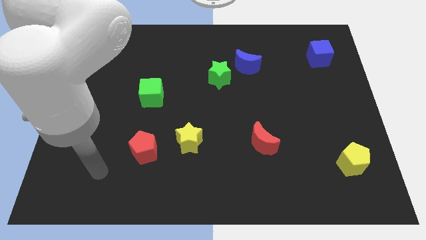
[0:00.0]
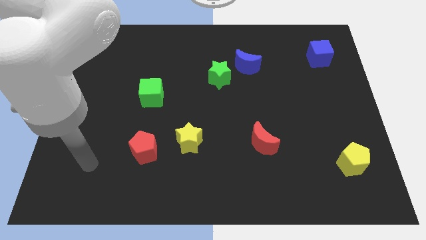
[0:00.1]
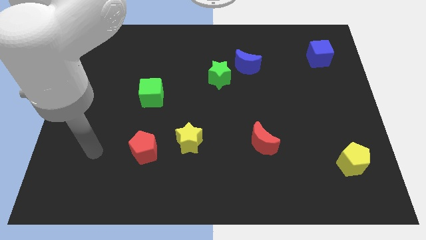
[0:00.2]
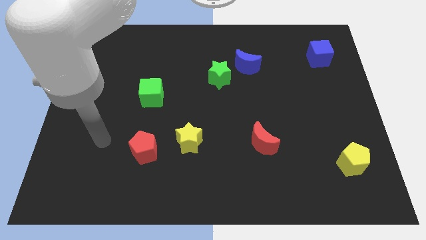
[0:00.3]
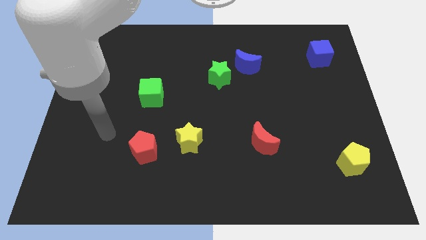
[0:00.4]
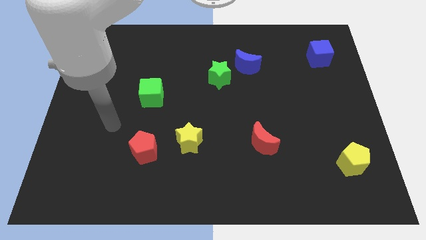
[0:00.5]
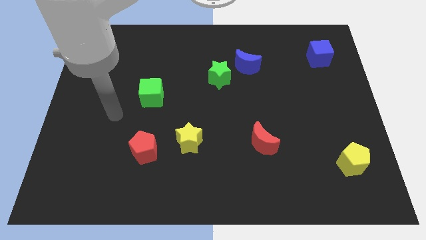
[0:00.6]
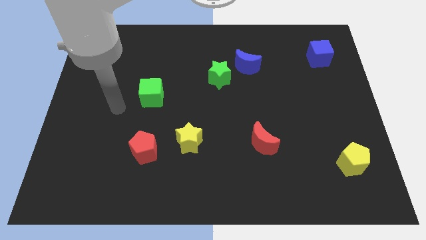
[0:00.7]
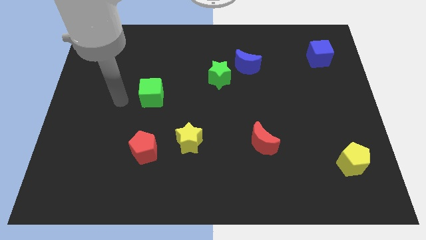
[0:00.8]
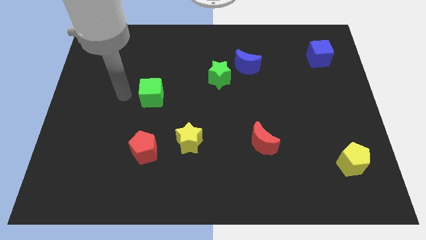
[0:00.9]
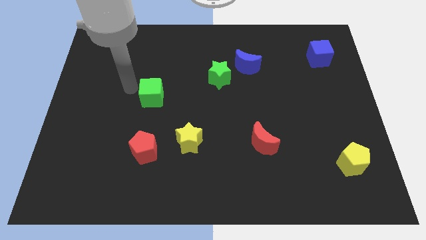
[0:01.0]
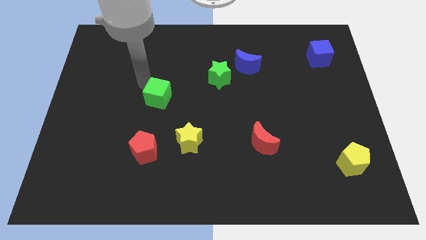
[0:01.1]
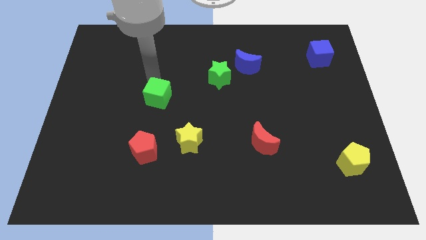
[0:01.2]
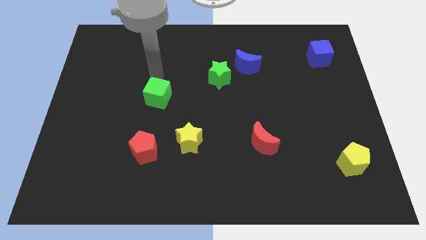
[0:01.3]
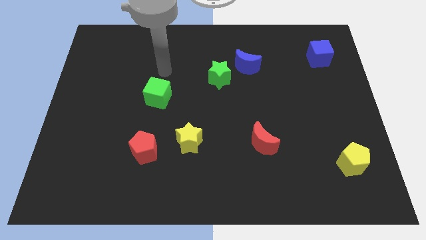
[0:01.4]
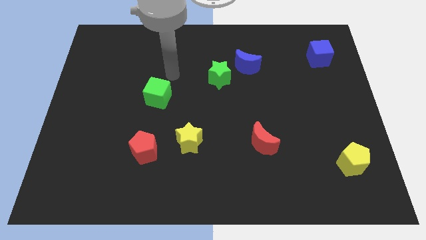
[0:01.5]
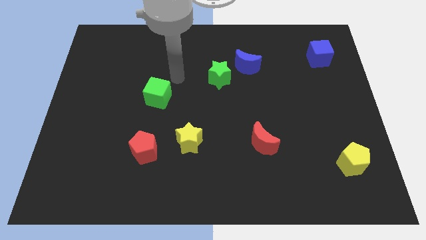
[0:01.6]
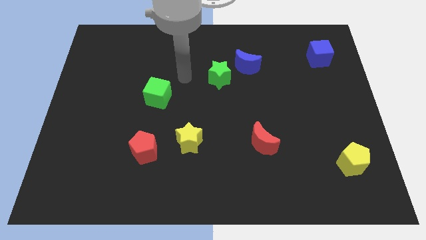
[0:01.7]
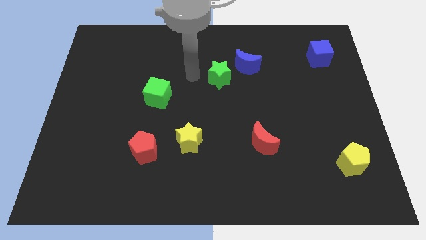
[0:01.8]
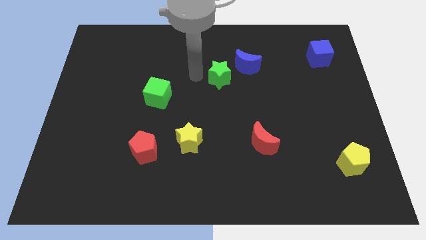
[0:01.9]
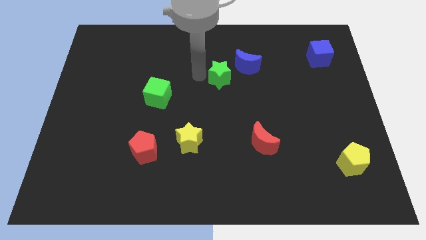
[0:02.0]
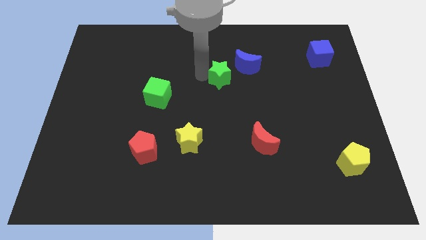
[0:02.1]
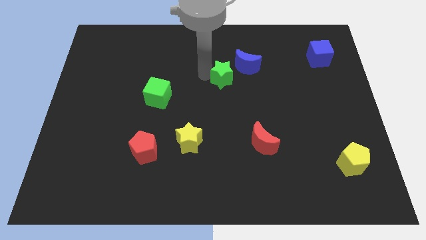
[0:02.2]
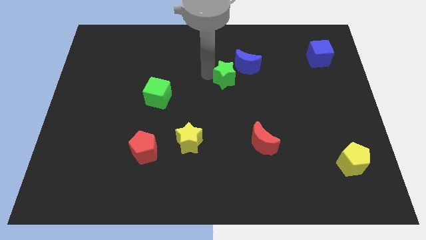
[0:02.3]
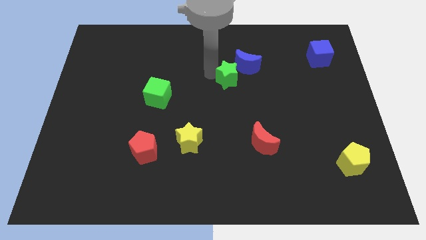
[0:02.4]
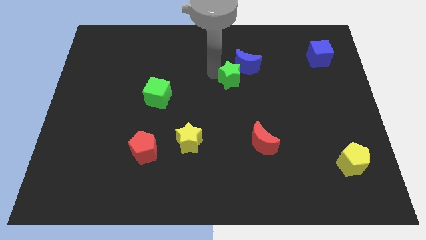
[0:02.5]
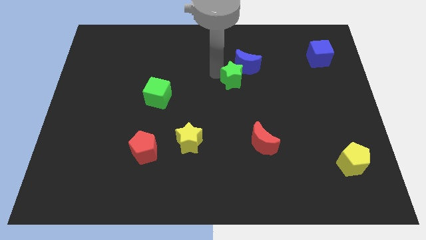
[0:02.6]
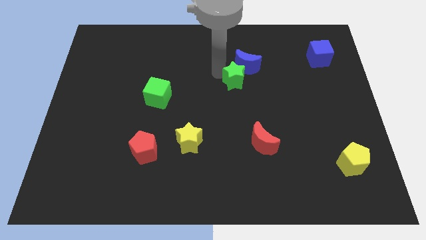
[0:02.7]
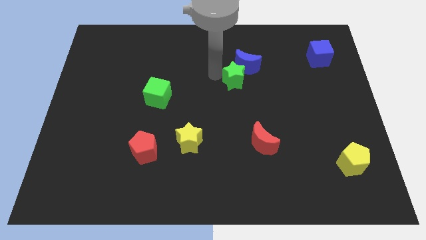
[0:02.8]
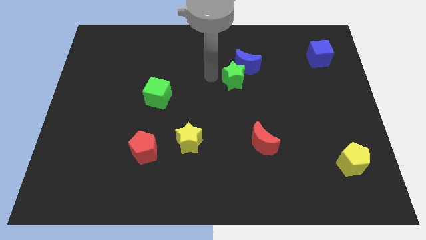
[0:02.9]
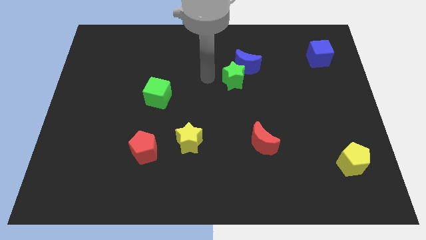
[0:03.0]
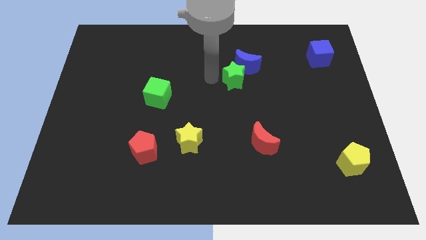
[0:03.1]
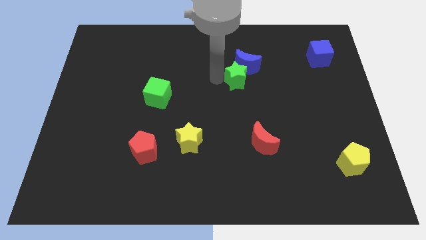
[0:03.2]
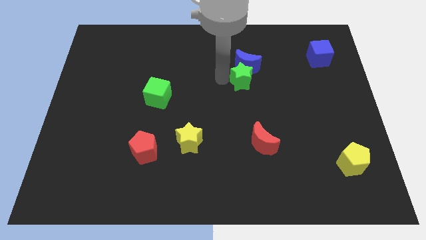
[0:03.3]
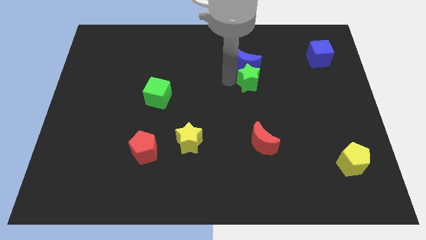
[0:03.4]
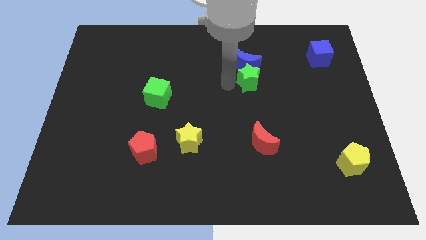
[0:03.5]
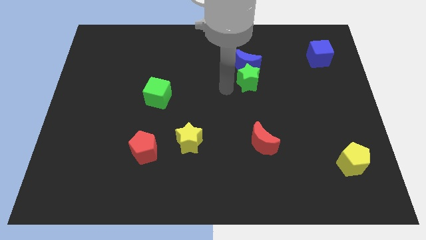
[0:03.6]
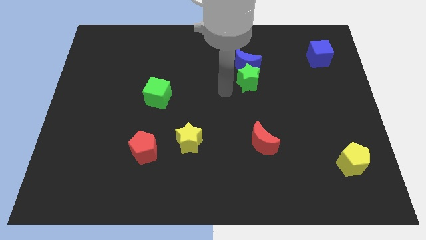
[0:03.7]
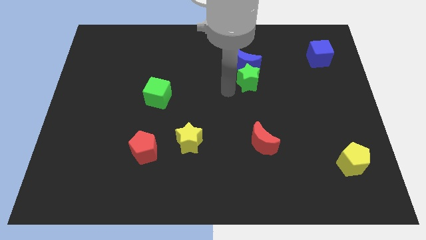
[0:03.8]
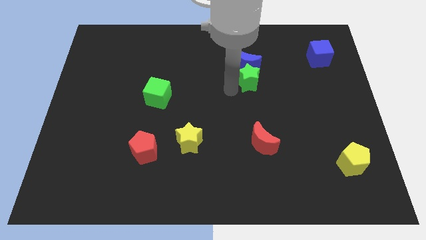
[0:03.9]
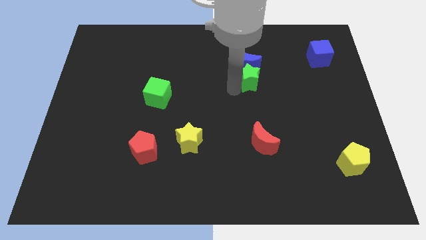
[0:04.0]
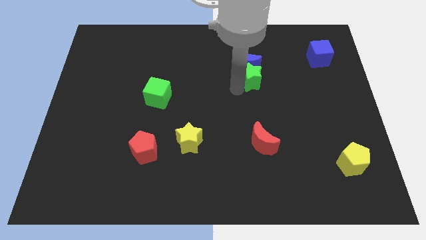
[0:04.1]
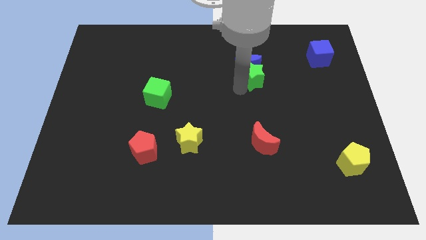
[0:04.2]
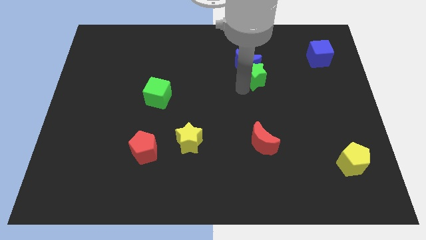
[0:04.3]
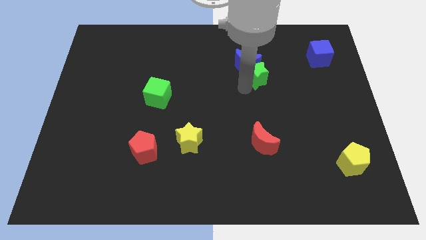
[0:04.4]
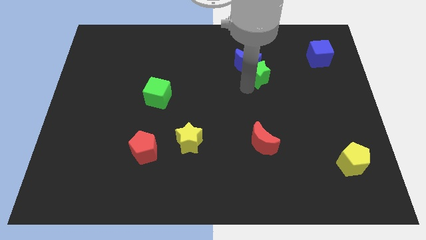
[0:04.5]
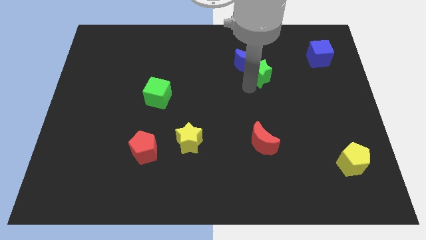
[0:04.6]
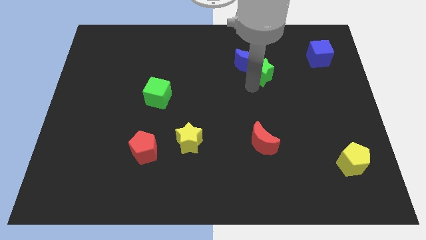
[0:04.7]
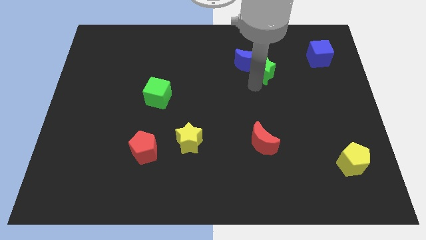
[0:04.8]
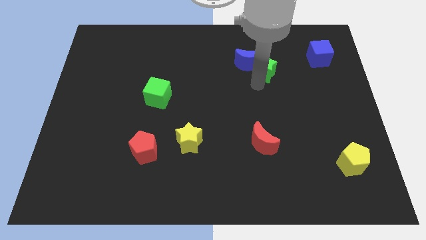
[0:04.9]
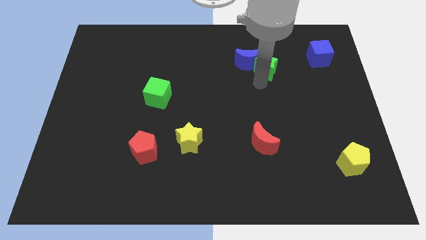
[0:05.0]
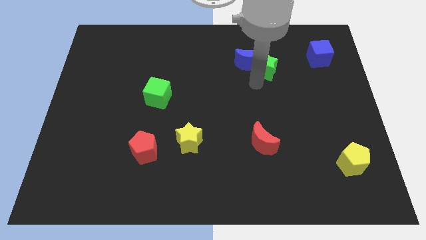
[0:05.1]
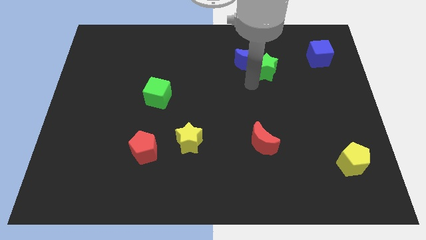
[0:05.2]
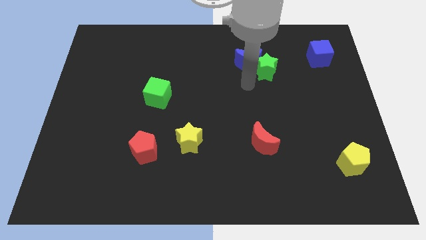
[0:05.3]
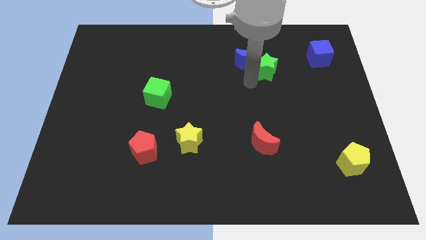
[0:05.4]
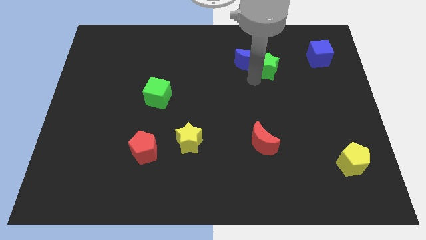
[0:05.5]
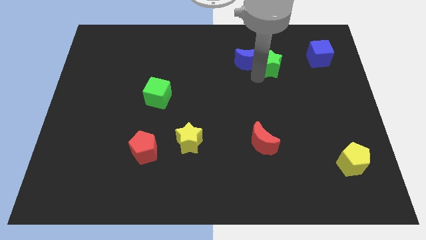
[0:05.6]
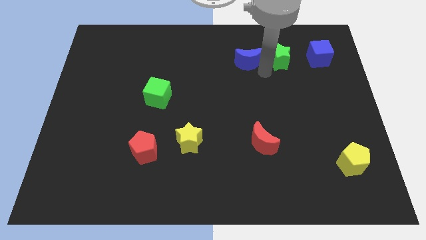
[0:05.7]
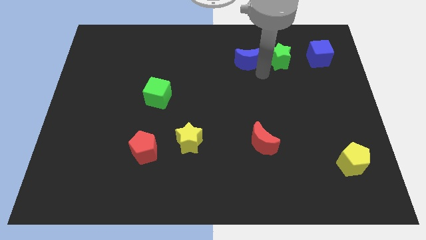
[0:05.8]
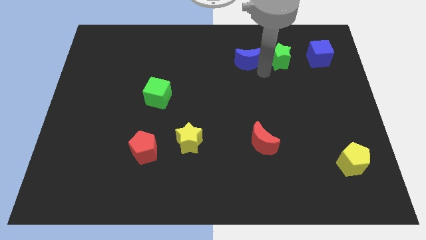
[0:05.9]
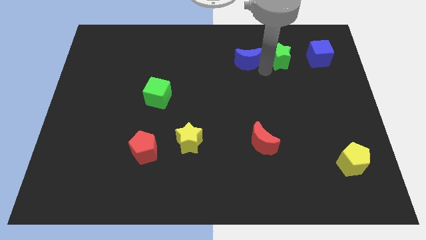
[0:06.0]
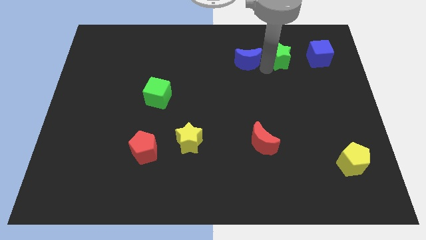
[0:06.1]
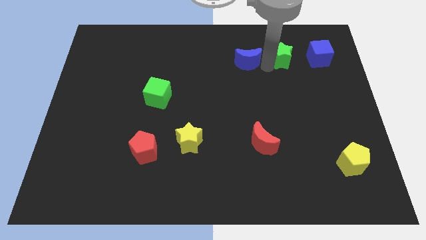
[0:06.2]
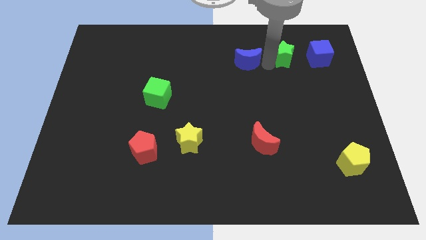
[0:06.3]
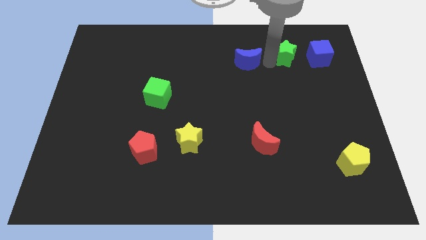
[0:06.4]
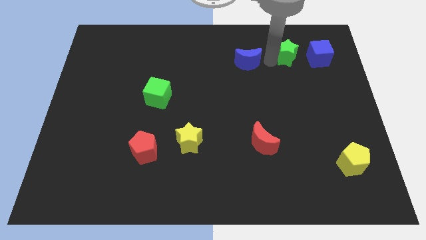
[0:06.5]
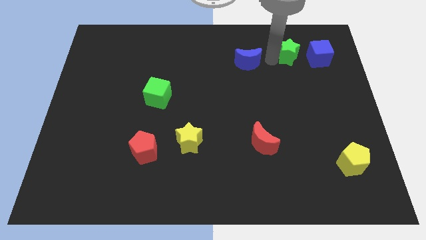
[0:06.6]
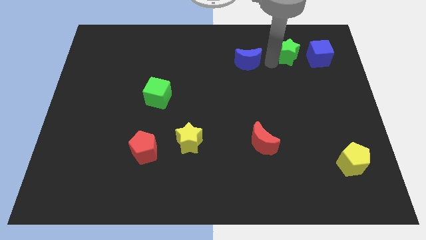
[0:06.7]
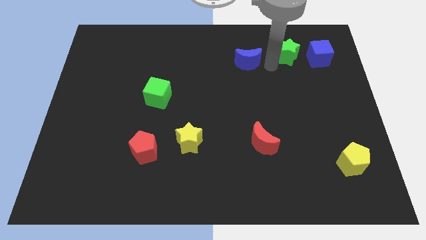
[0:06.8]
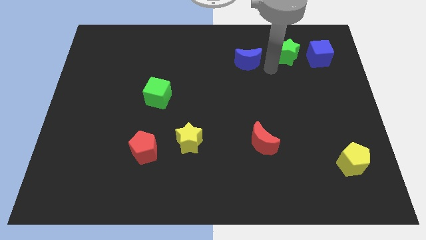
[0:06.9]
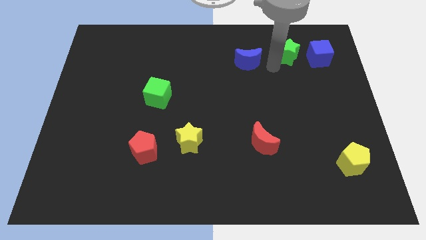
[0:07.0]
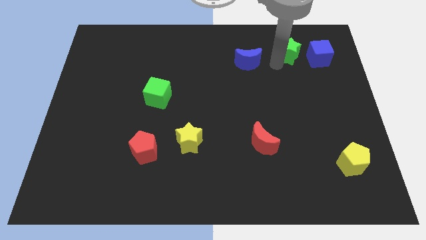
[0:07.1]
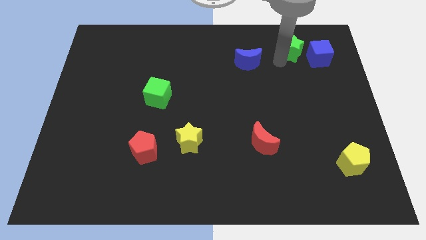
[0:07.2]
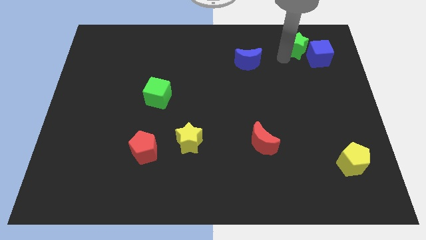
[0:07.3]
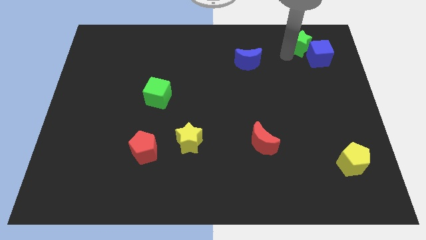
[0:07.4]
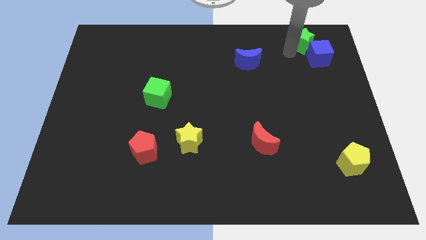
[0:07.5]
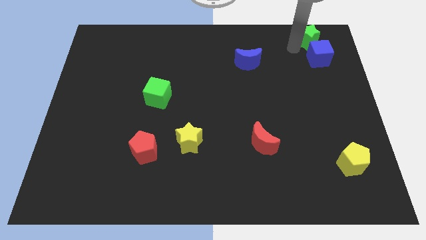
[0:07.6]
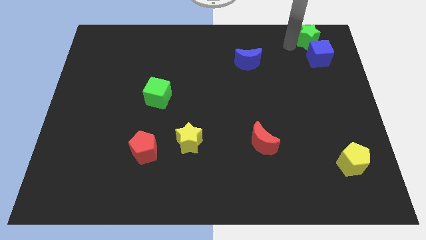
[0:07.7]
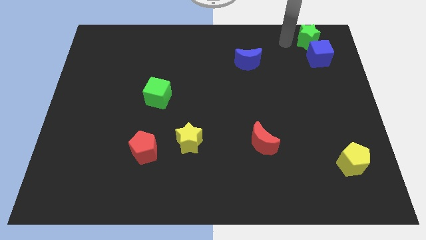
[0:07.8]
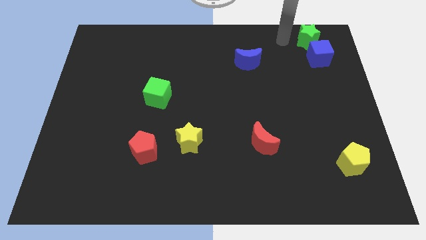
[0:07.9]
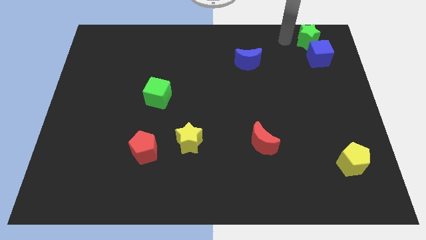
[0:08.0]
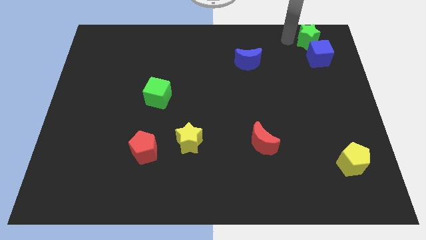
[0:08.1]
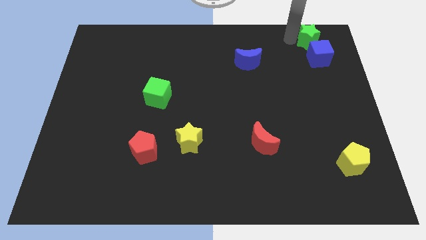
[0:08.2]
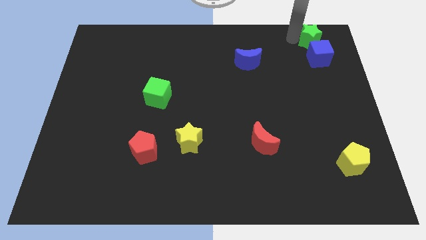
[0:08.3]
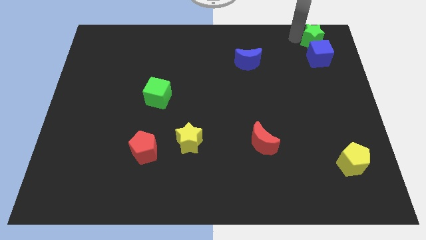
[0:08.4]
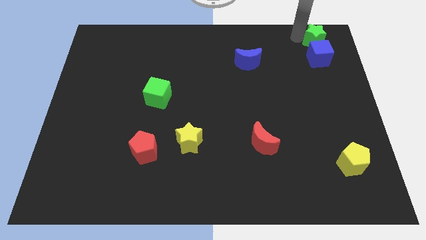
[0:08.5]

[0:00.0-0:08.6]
push the green star to the top right corner
